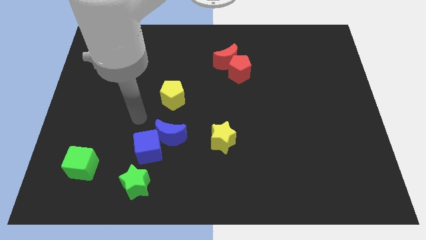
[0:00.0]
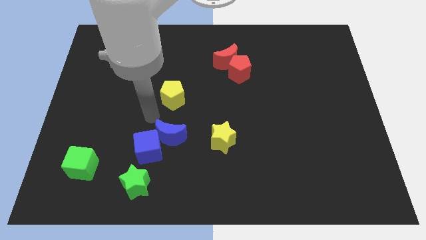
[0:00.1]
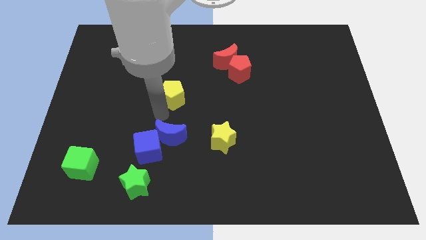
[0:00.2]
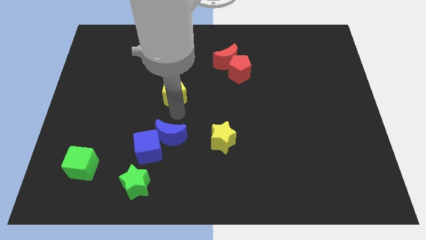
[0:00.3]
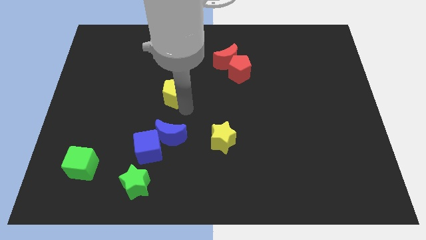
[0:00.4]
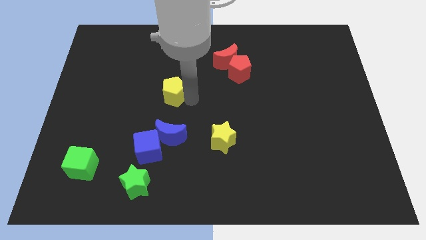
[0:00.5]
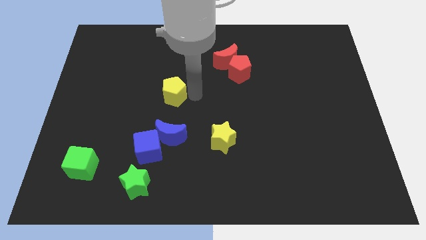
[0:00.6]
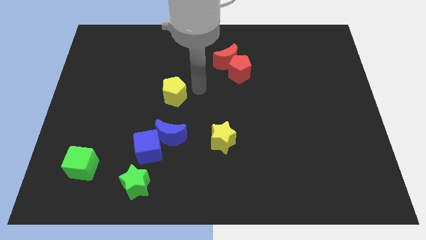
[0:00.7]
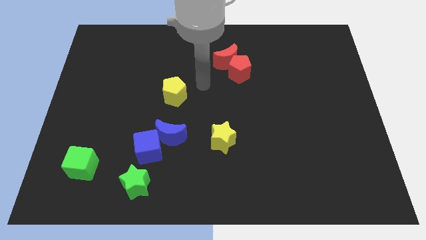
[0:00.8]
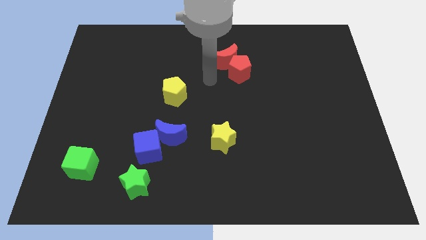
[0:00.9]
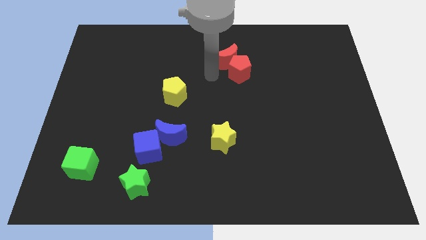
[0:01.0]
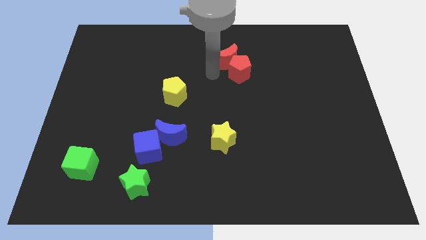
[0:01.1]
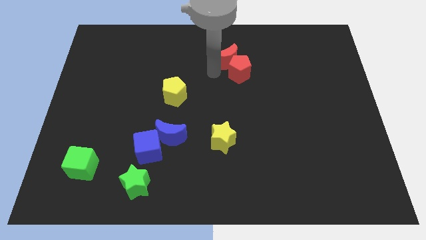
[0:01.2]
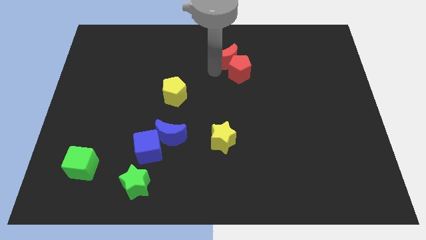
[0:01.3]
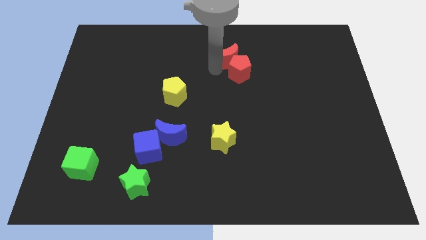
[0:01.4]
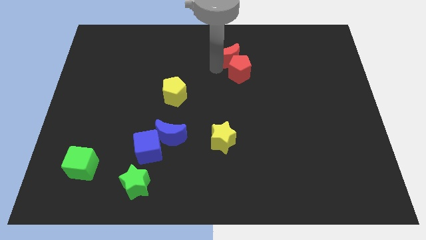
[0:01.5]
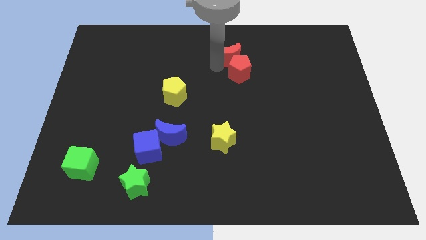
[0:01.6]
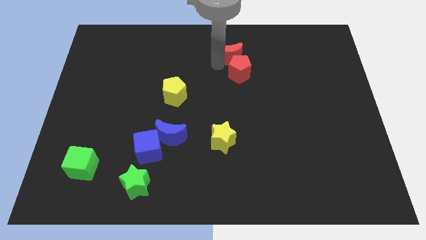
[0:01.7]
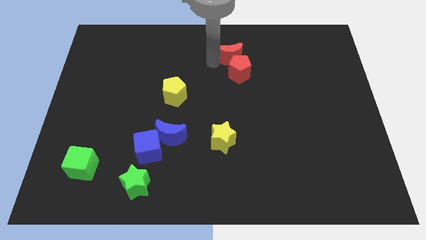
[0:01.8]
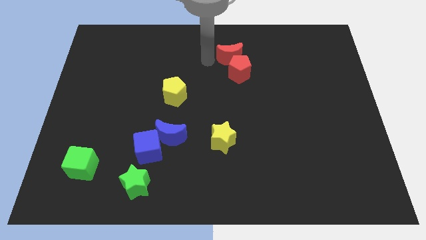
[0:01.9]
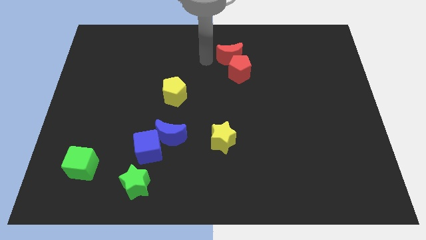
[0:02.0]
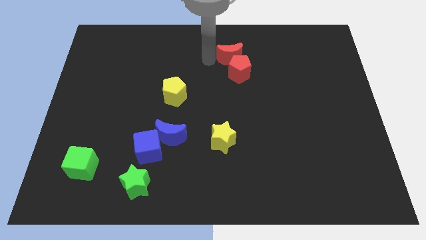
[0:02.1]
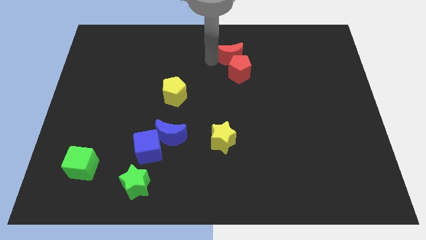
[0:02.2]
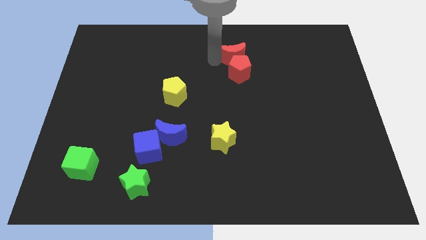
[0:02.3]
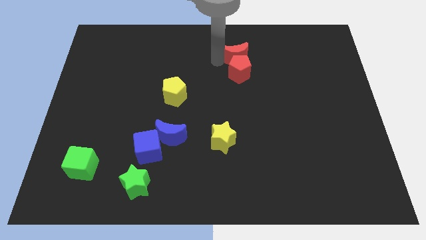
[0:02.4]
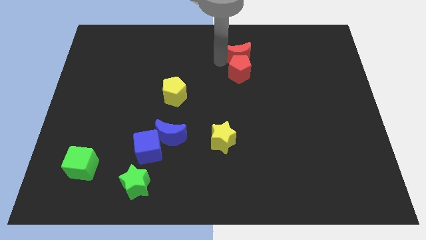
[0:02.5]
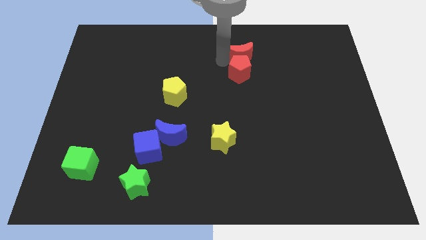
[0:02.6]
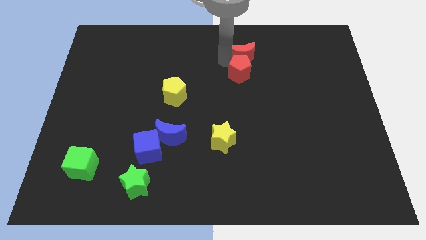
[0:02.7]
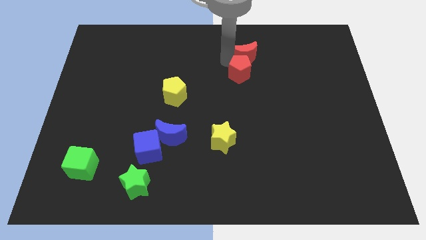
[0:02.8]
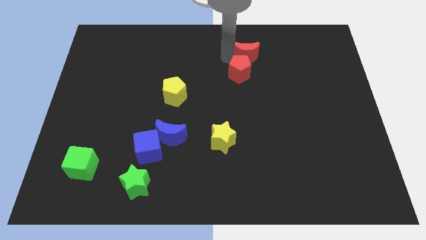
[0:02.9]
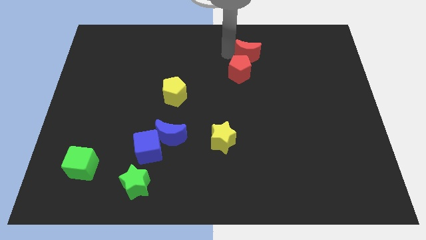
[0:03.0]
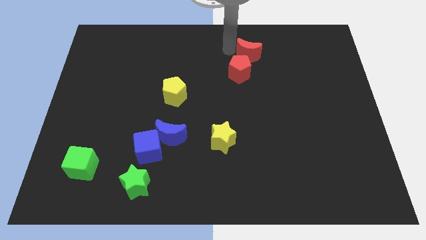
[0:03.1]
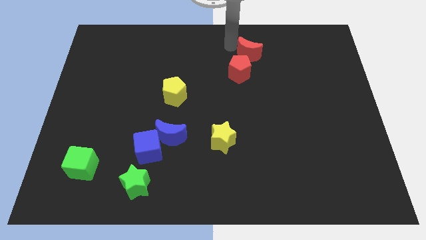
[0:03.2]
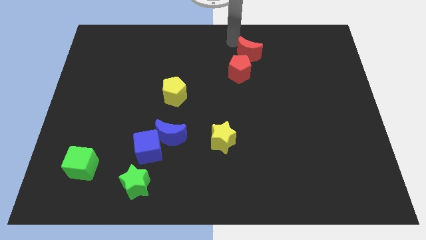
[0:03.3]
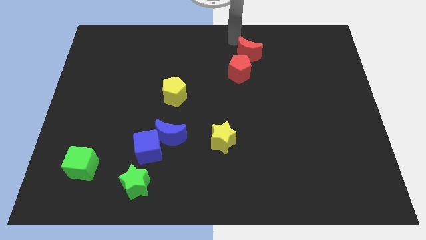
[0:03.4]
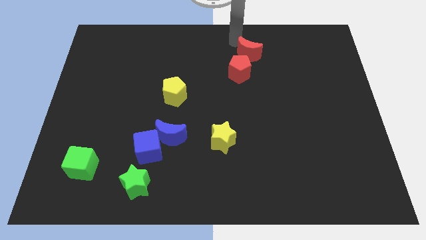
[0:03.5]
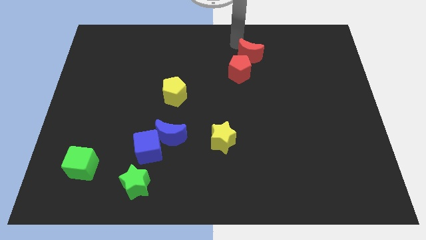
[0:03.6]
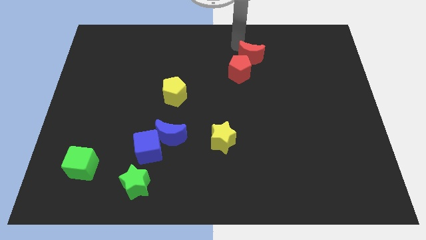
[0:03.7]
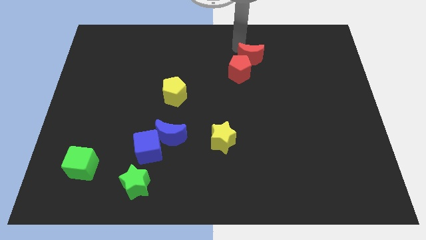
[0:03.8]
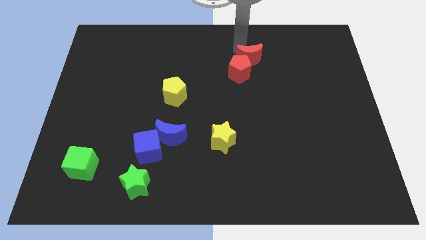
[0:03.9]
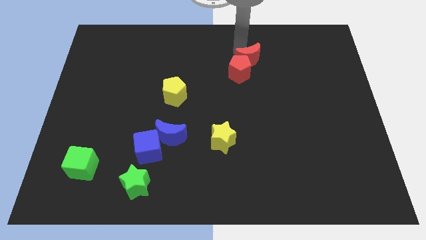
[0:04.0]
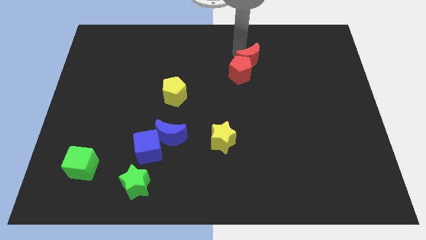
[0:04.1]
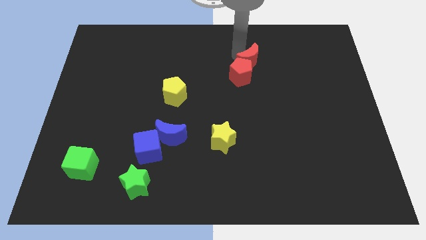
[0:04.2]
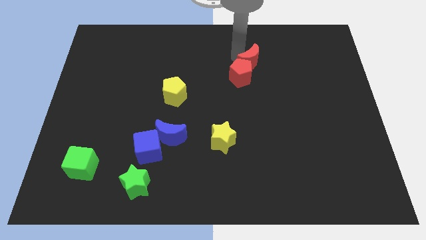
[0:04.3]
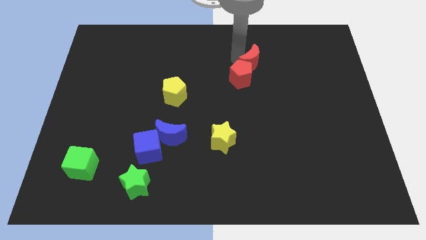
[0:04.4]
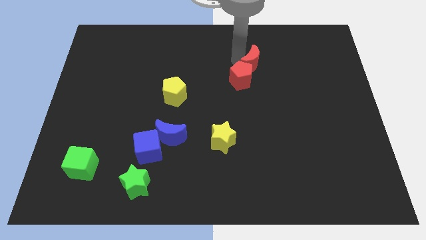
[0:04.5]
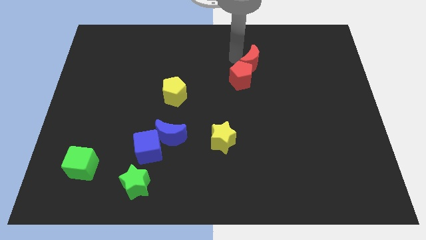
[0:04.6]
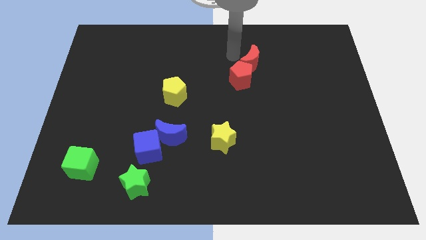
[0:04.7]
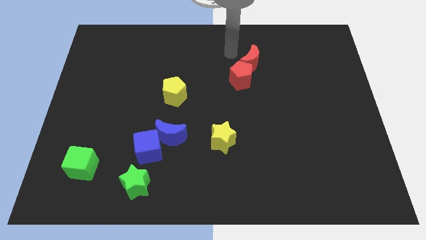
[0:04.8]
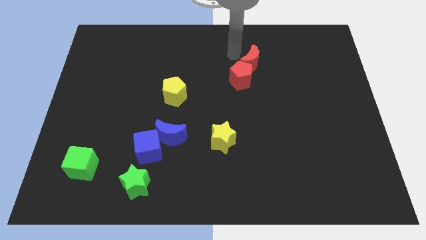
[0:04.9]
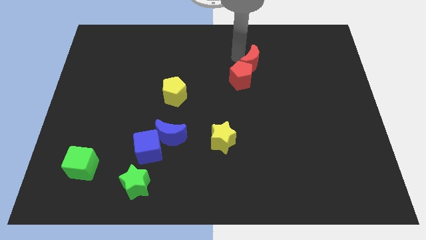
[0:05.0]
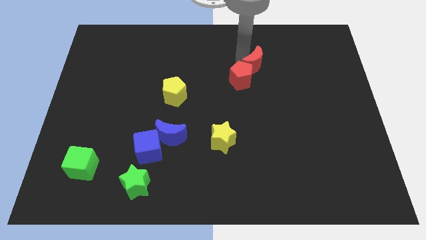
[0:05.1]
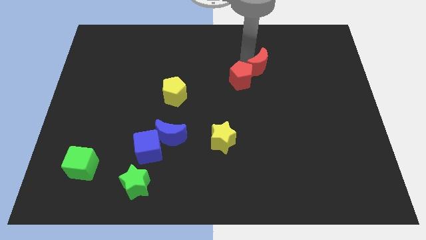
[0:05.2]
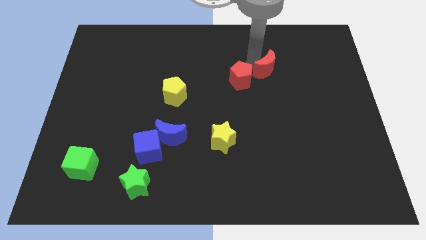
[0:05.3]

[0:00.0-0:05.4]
push the red moon a little down and right diagonally

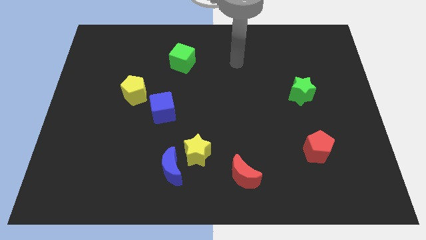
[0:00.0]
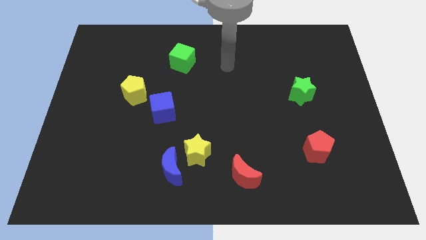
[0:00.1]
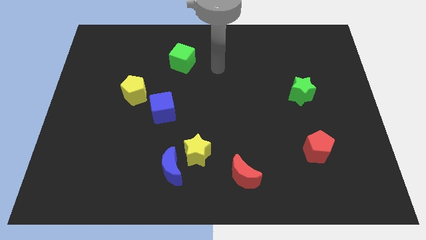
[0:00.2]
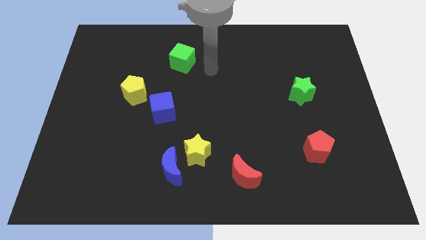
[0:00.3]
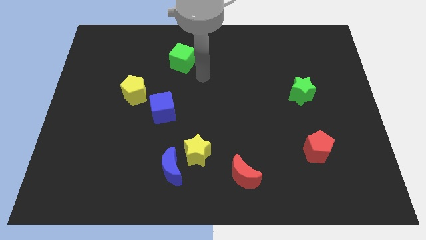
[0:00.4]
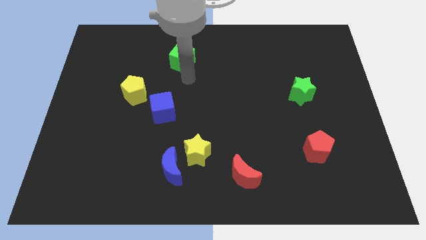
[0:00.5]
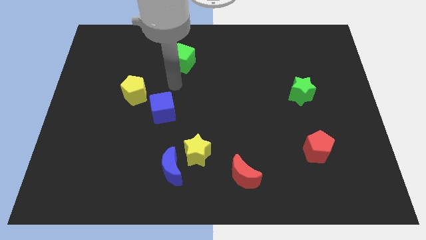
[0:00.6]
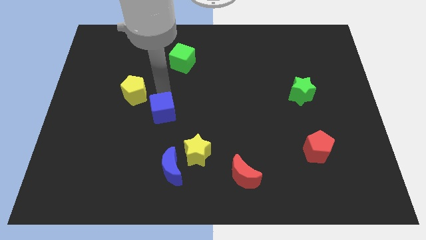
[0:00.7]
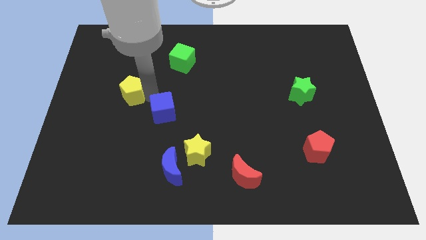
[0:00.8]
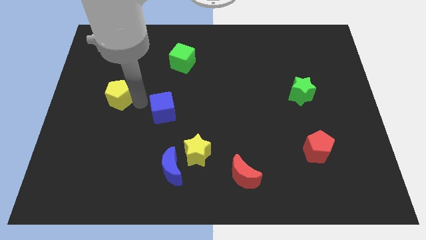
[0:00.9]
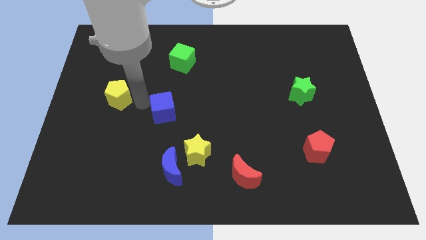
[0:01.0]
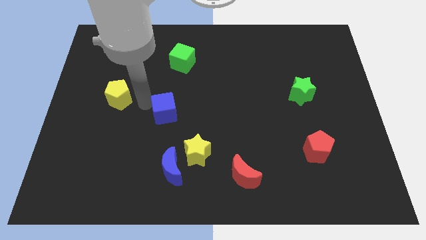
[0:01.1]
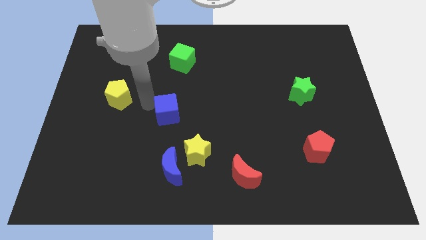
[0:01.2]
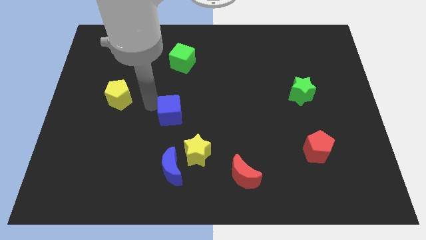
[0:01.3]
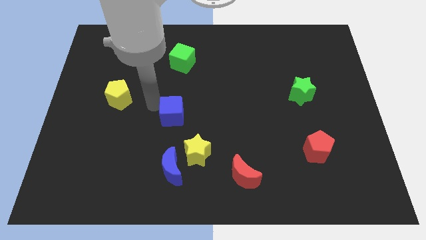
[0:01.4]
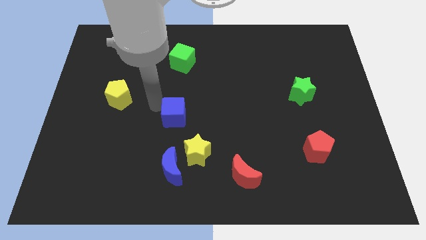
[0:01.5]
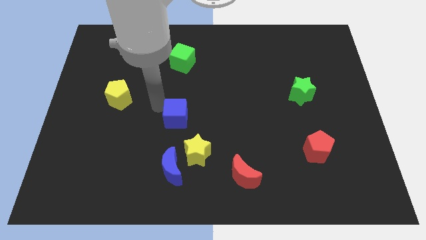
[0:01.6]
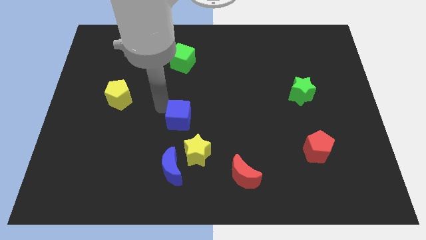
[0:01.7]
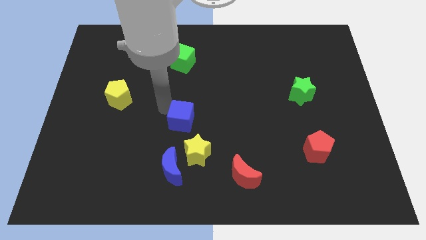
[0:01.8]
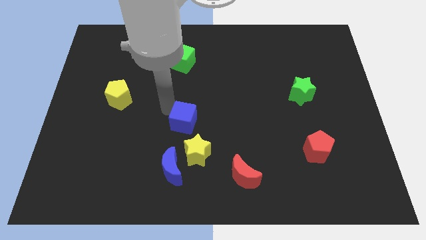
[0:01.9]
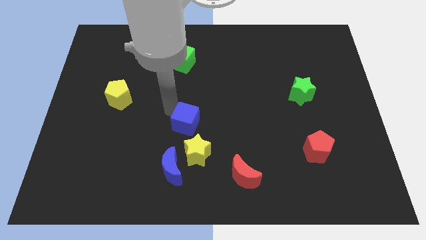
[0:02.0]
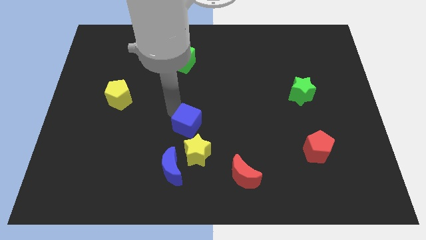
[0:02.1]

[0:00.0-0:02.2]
slightly slide the blue cube down and then to the right
